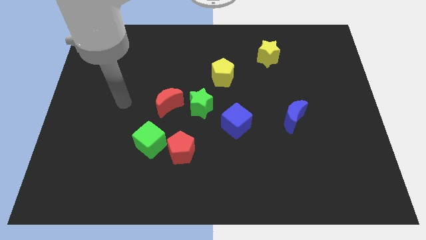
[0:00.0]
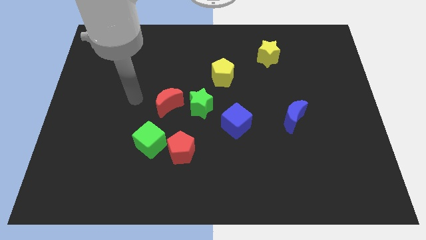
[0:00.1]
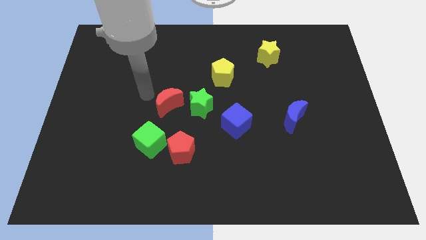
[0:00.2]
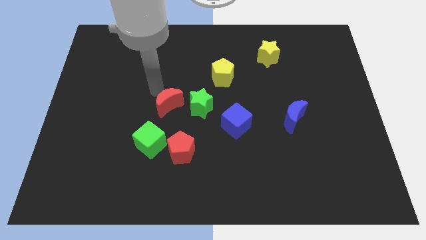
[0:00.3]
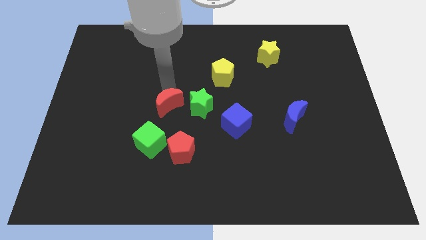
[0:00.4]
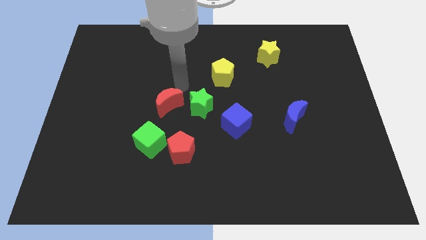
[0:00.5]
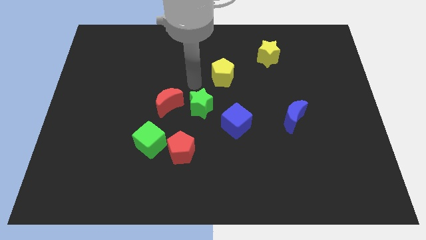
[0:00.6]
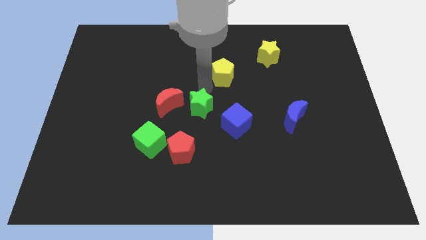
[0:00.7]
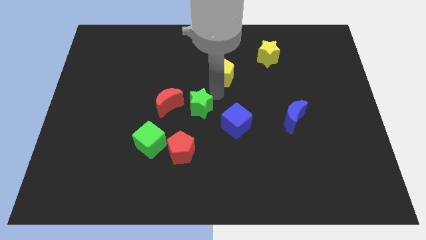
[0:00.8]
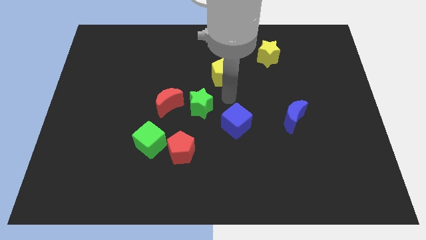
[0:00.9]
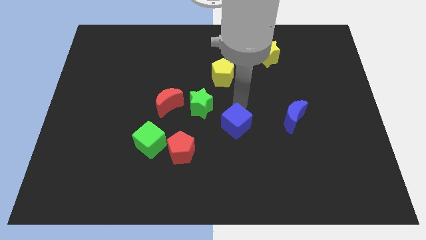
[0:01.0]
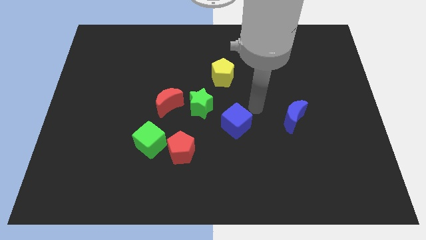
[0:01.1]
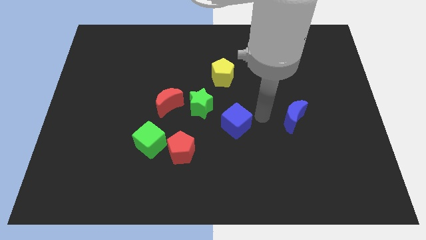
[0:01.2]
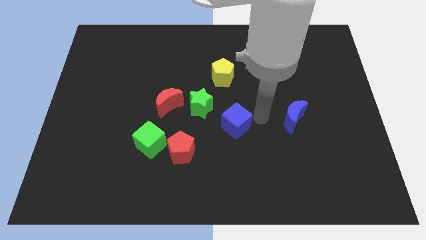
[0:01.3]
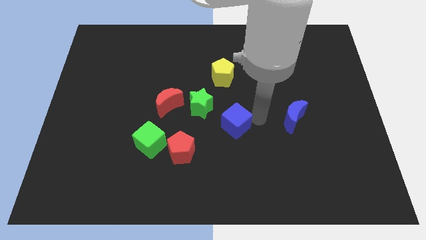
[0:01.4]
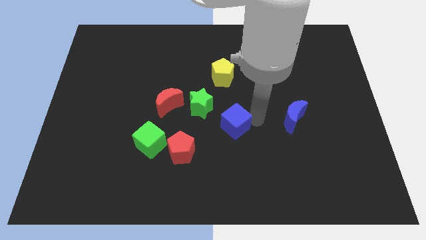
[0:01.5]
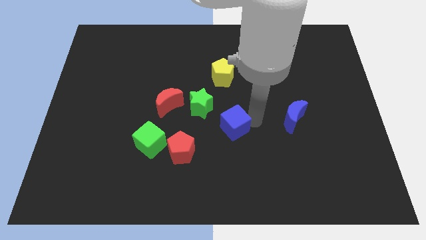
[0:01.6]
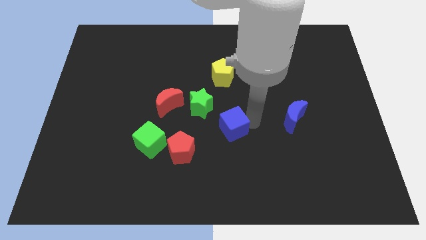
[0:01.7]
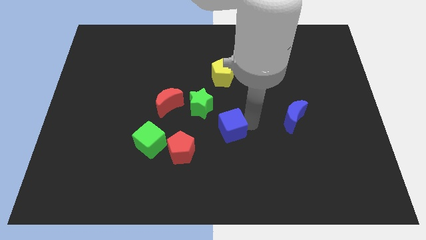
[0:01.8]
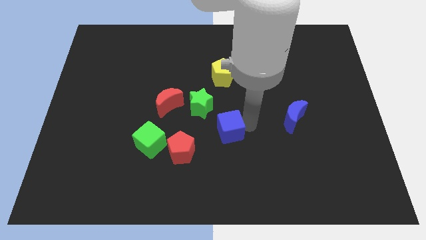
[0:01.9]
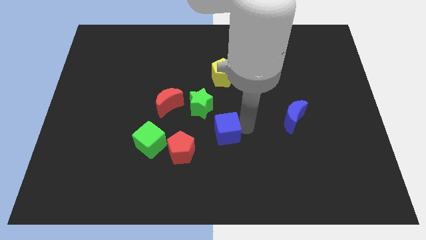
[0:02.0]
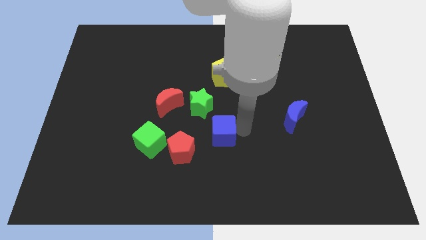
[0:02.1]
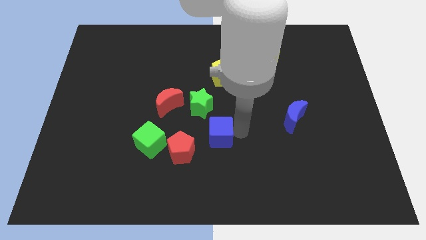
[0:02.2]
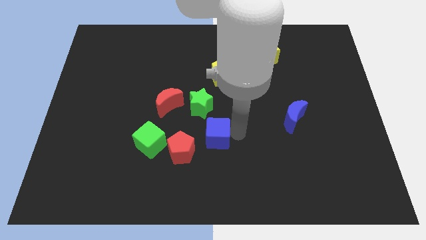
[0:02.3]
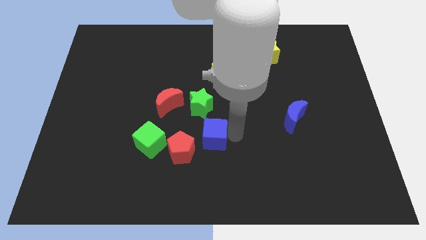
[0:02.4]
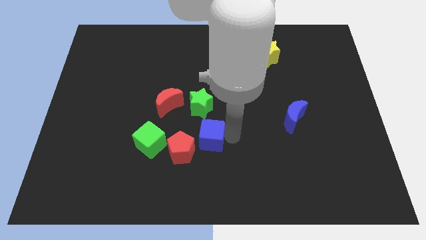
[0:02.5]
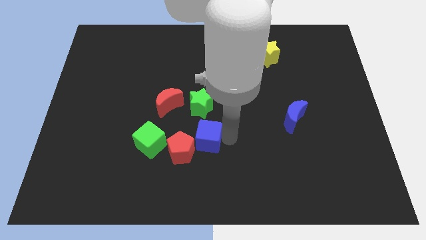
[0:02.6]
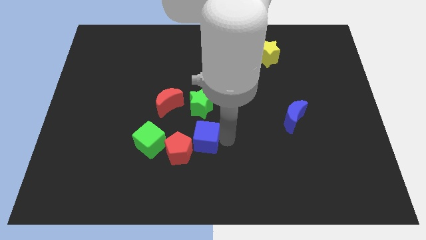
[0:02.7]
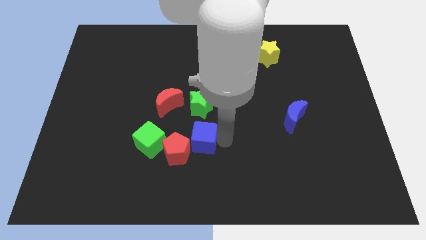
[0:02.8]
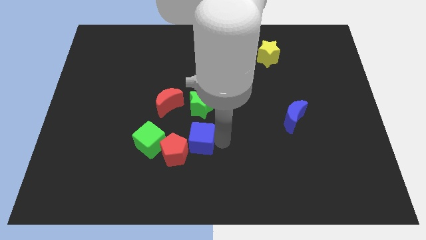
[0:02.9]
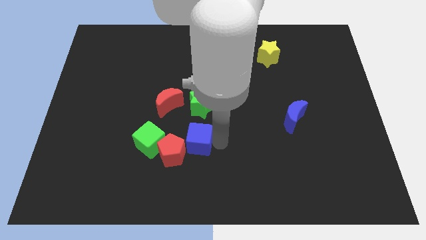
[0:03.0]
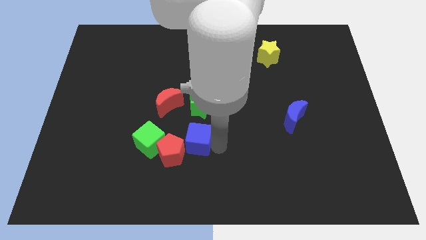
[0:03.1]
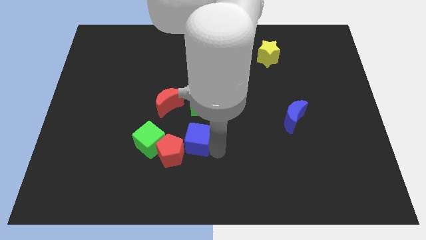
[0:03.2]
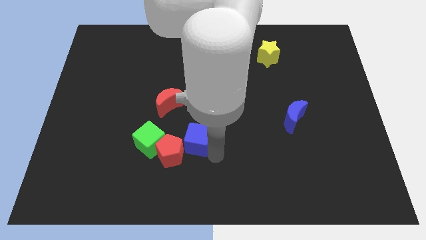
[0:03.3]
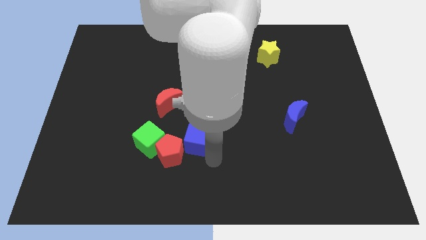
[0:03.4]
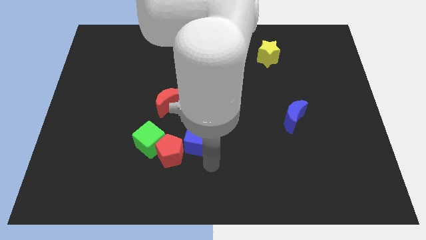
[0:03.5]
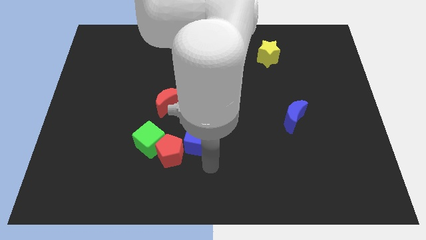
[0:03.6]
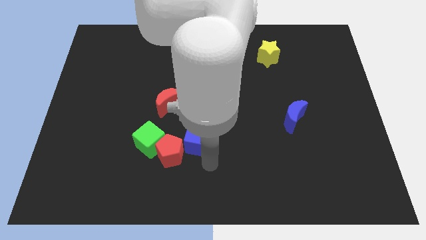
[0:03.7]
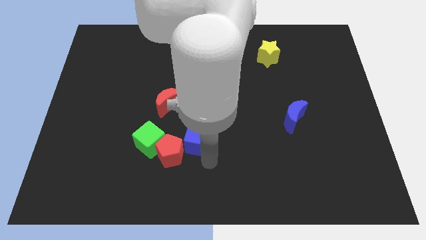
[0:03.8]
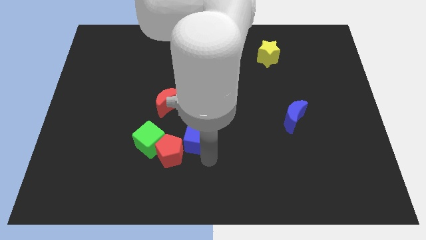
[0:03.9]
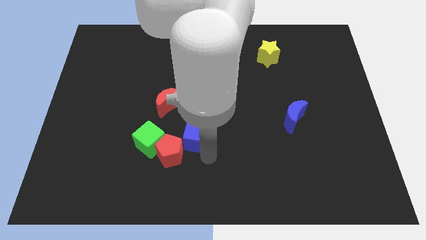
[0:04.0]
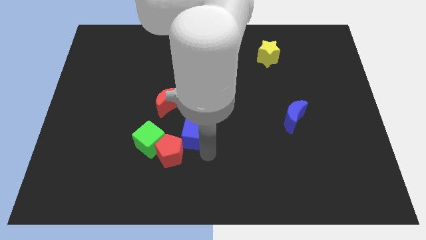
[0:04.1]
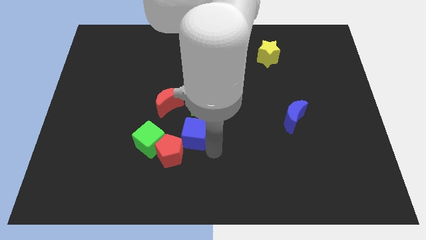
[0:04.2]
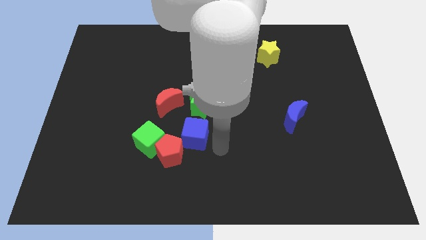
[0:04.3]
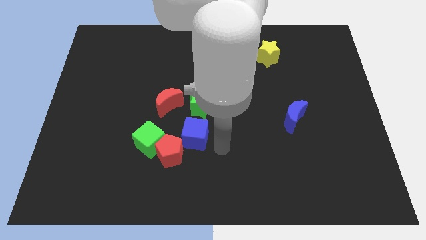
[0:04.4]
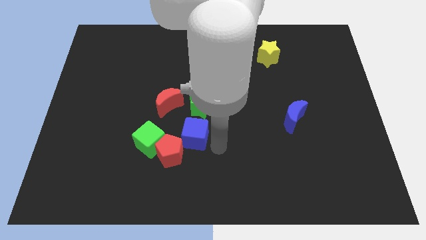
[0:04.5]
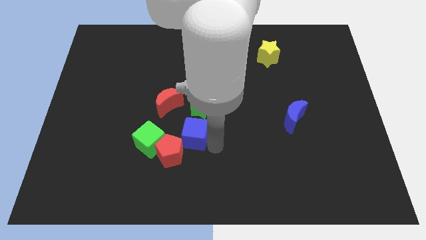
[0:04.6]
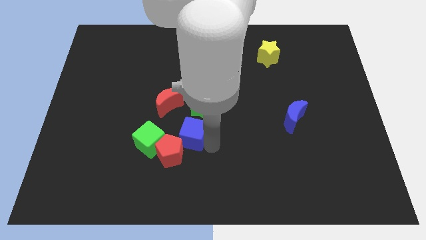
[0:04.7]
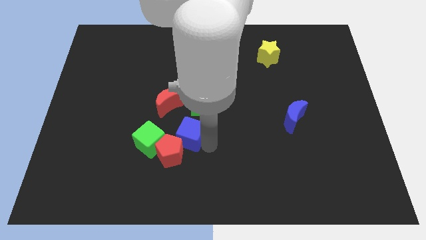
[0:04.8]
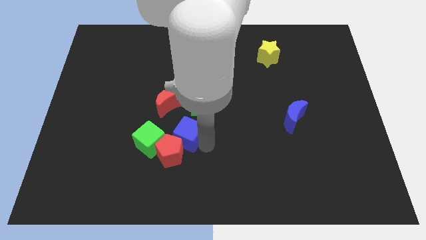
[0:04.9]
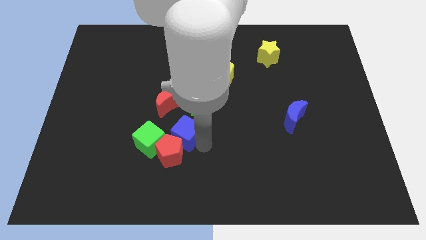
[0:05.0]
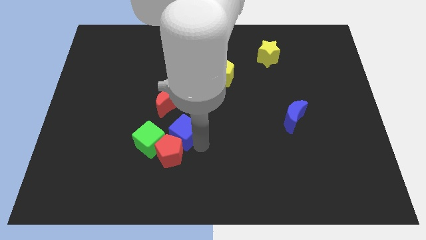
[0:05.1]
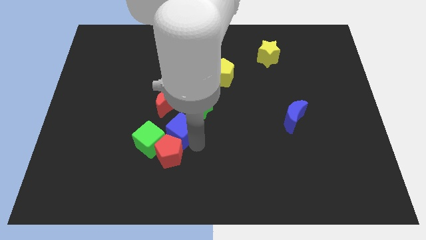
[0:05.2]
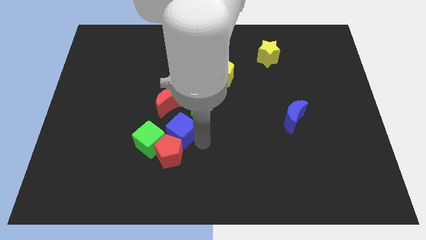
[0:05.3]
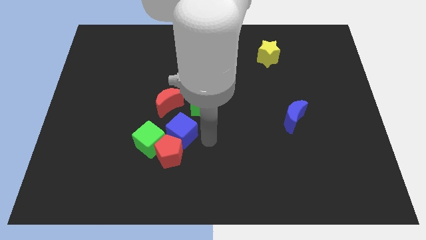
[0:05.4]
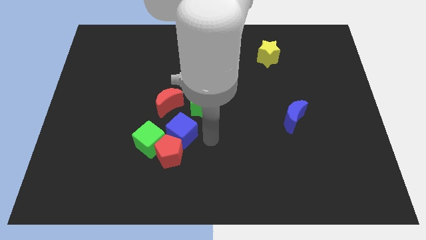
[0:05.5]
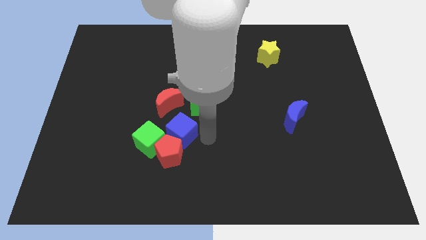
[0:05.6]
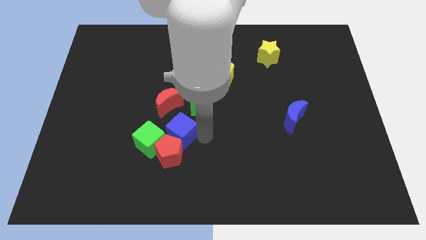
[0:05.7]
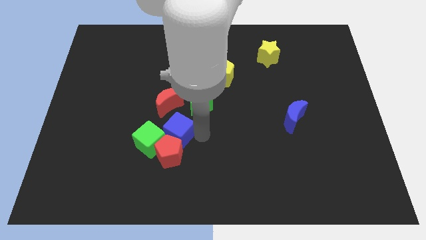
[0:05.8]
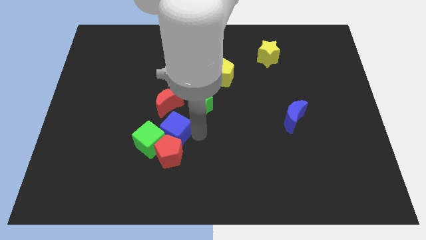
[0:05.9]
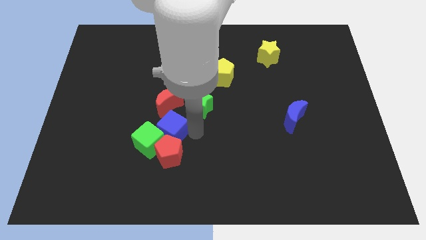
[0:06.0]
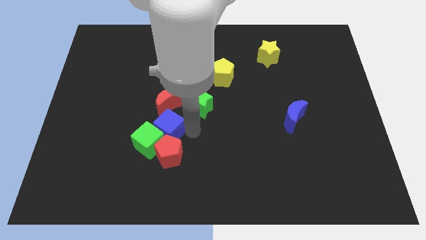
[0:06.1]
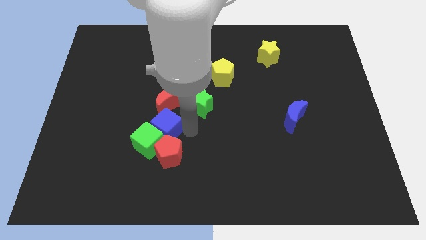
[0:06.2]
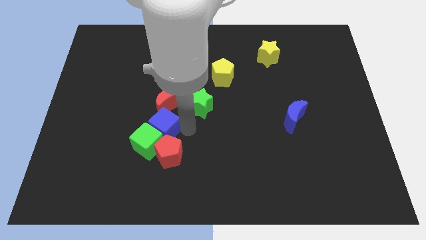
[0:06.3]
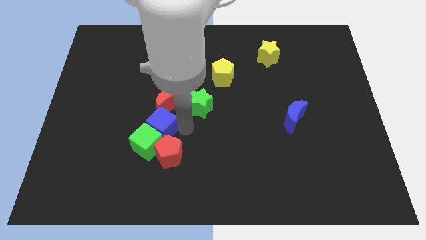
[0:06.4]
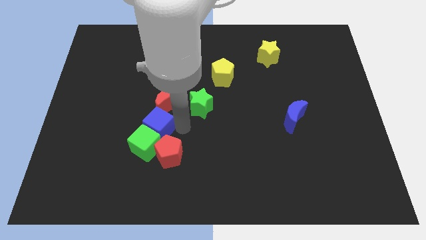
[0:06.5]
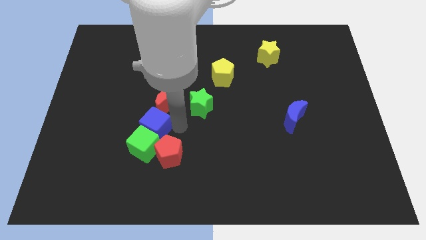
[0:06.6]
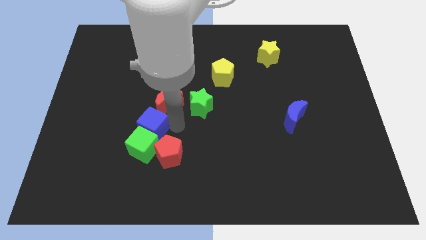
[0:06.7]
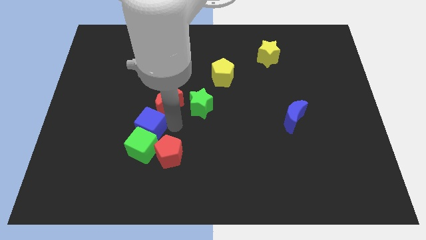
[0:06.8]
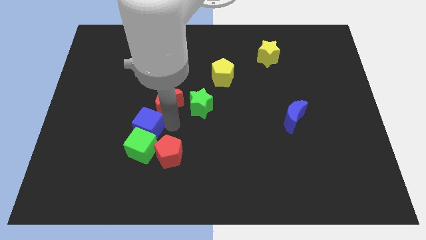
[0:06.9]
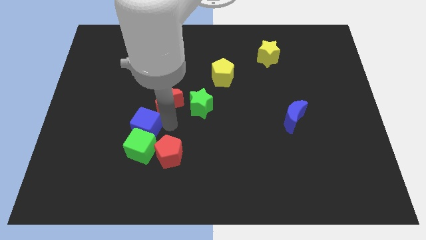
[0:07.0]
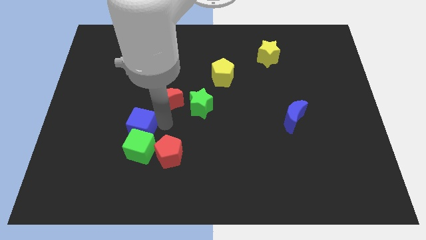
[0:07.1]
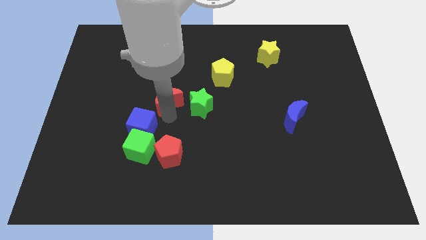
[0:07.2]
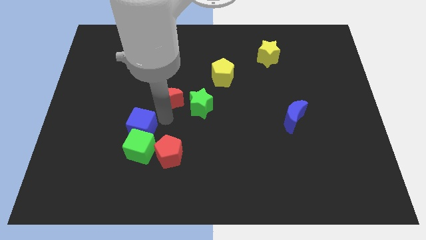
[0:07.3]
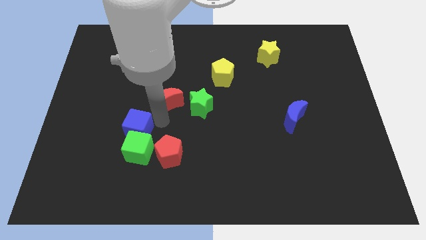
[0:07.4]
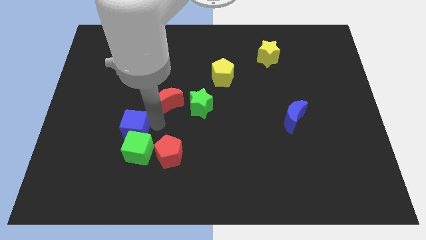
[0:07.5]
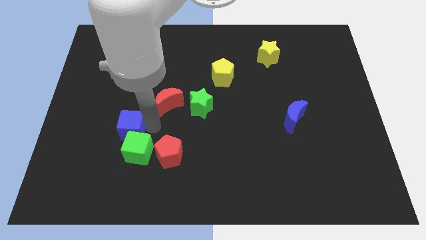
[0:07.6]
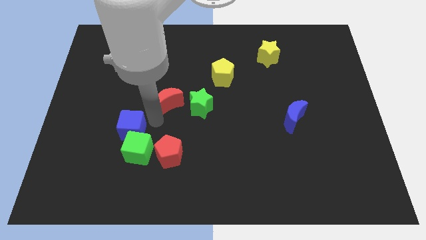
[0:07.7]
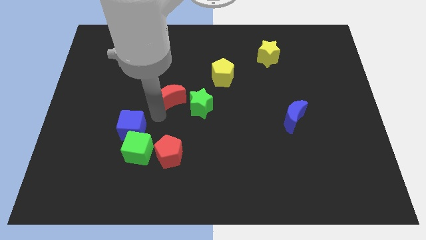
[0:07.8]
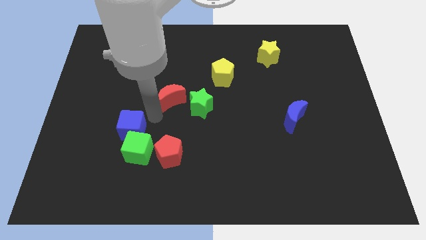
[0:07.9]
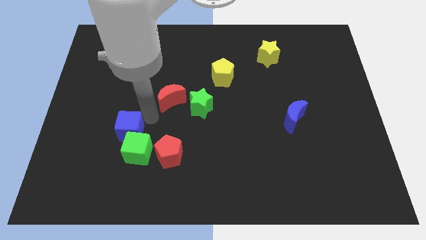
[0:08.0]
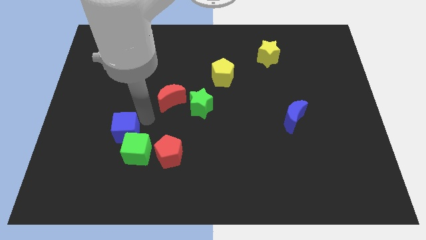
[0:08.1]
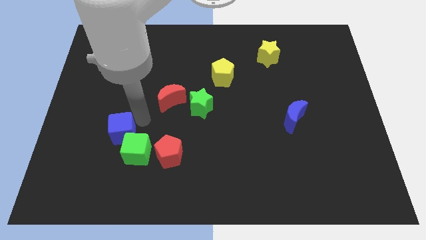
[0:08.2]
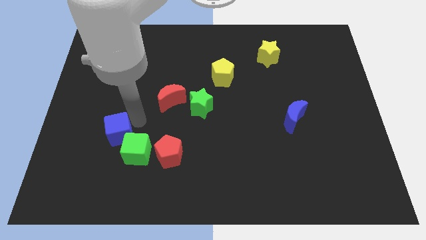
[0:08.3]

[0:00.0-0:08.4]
slide the blue cube just left of the green cube
